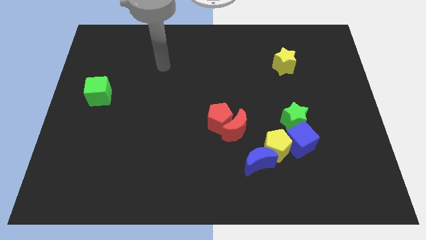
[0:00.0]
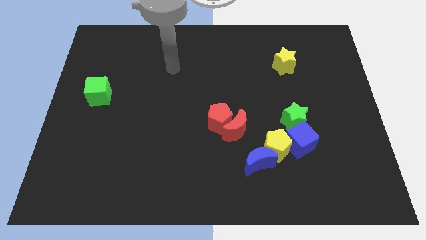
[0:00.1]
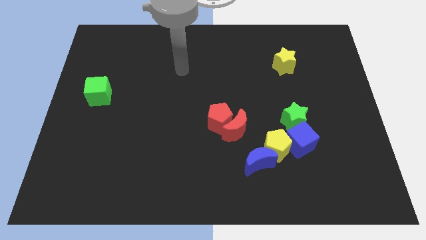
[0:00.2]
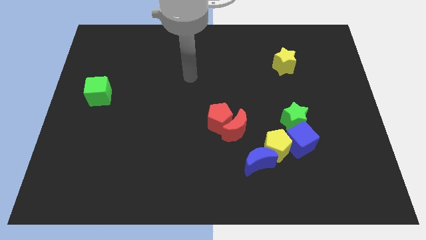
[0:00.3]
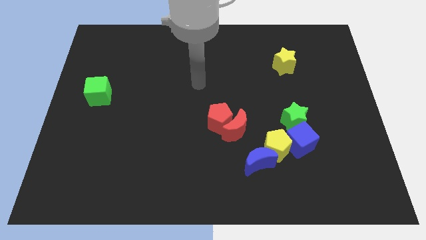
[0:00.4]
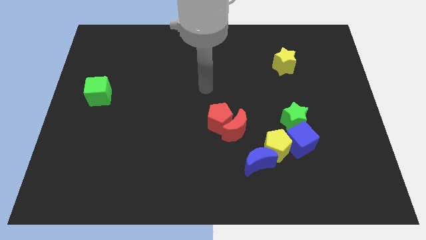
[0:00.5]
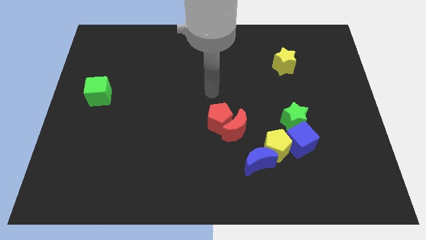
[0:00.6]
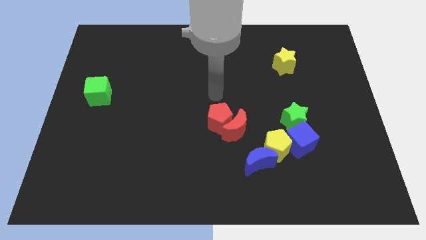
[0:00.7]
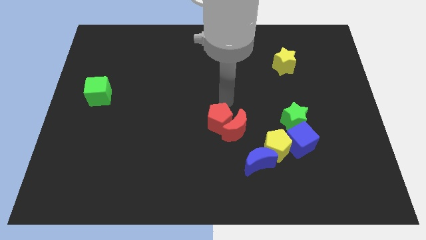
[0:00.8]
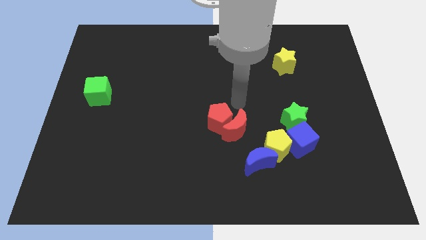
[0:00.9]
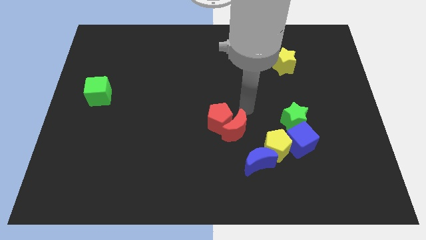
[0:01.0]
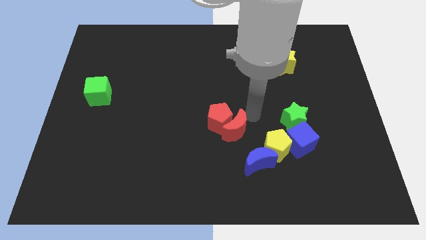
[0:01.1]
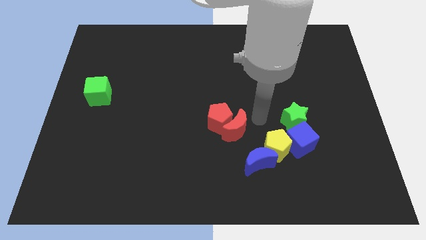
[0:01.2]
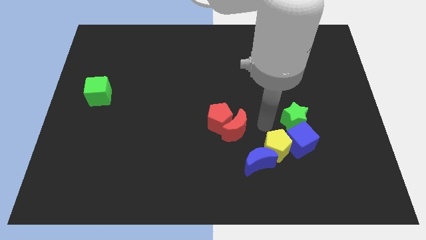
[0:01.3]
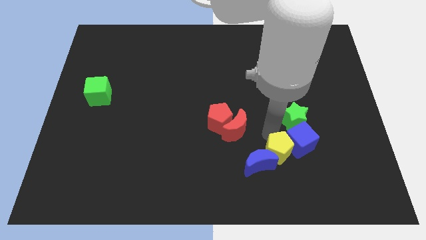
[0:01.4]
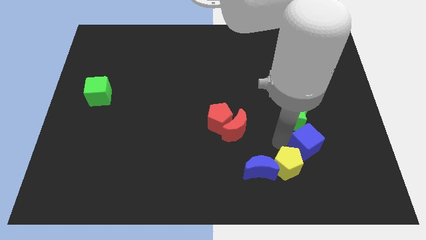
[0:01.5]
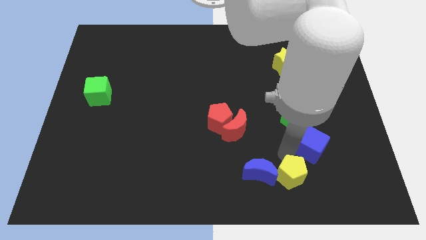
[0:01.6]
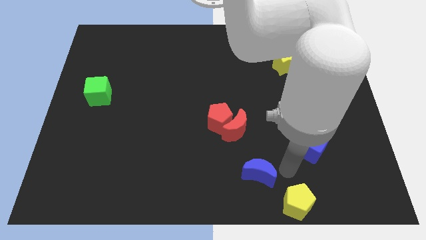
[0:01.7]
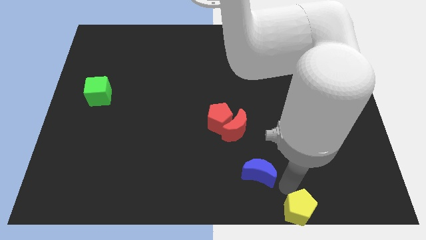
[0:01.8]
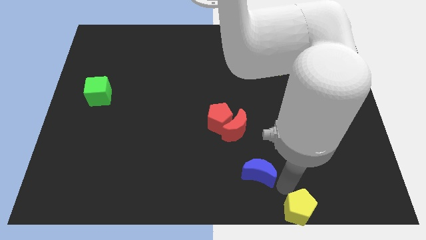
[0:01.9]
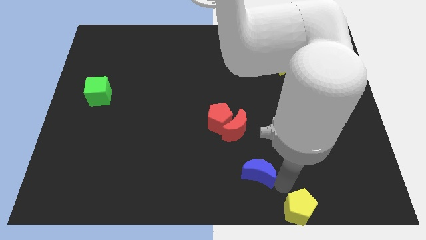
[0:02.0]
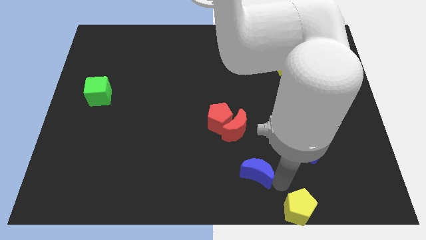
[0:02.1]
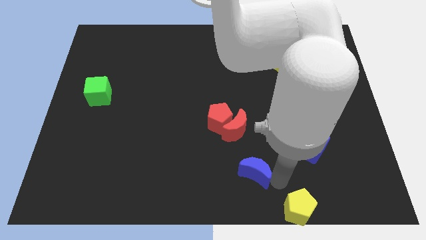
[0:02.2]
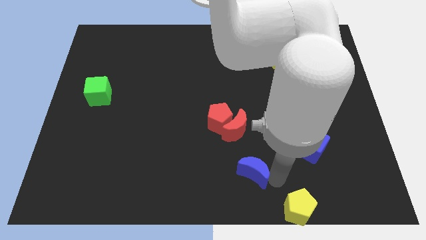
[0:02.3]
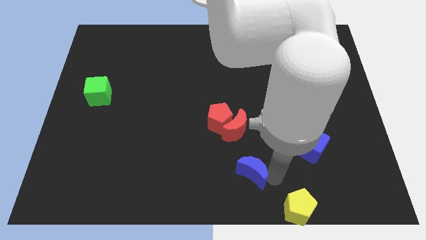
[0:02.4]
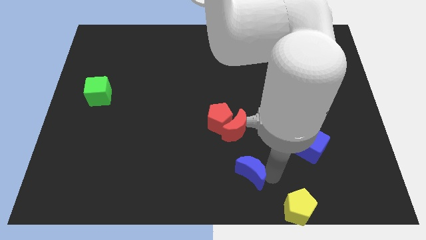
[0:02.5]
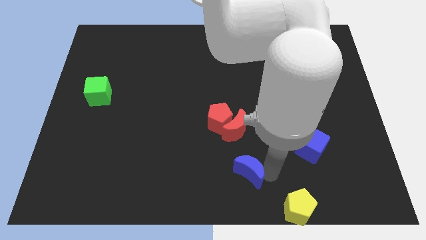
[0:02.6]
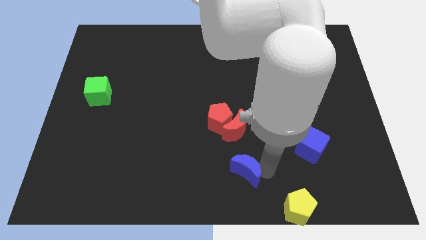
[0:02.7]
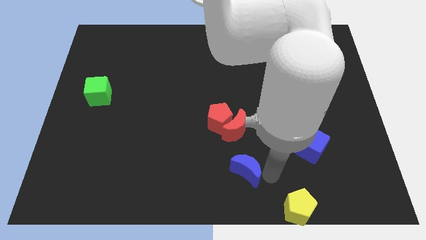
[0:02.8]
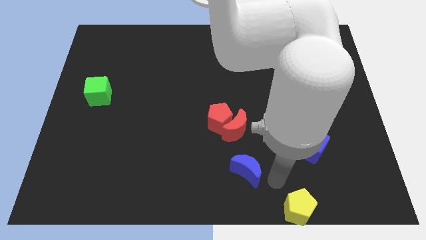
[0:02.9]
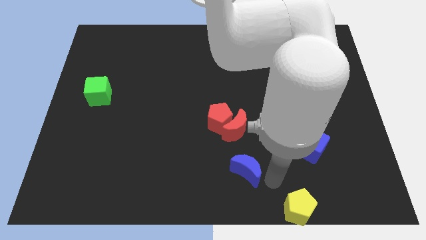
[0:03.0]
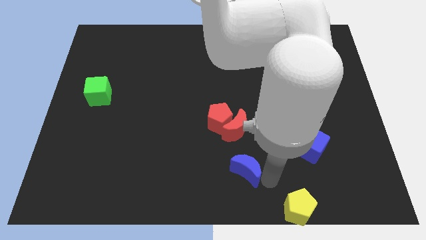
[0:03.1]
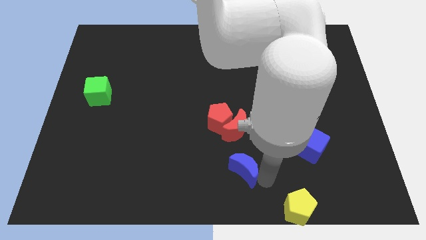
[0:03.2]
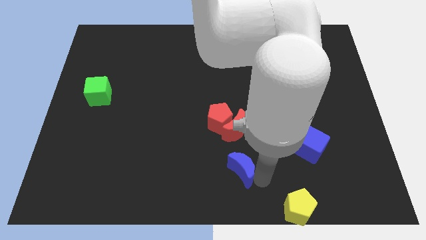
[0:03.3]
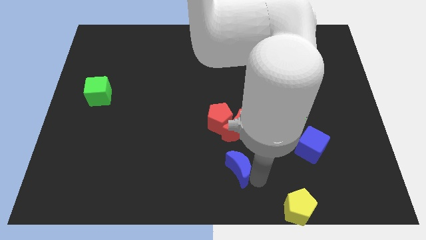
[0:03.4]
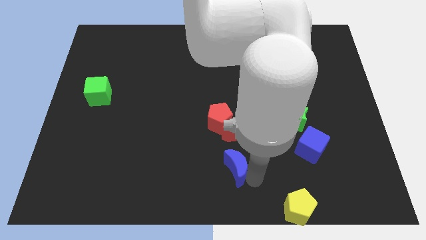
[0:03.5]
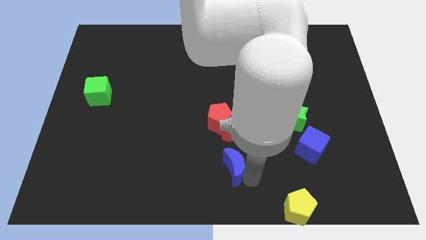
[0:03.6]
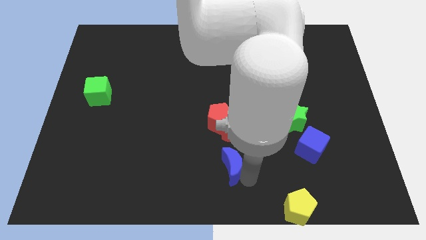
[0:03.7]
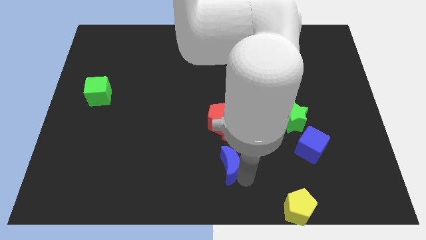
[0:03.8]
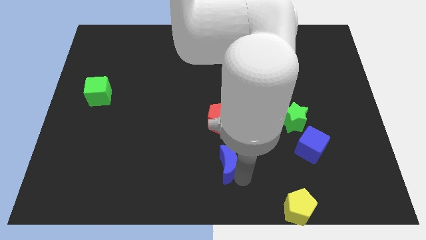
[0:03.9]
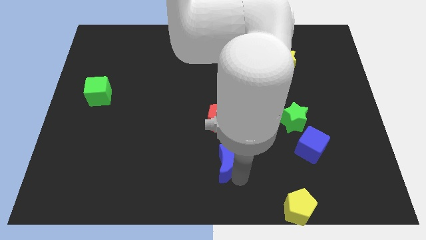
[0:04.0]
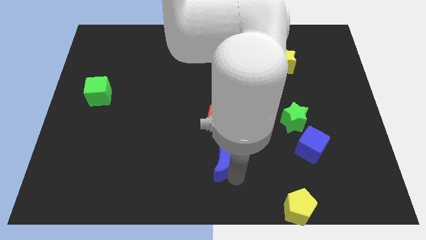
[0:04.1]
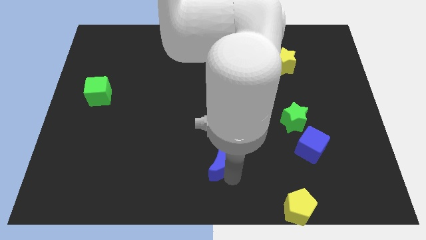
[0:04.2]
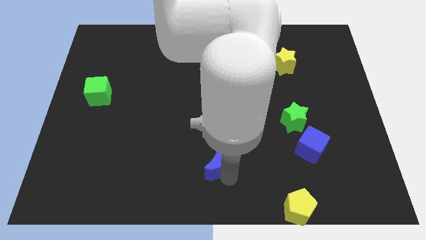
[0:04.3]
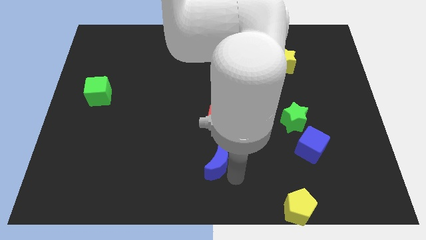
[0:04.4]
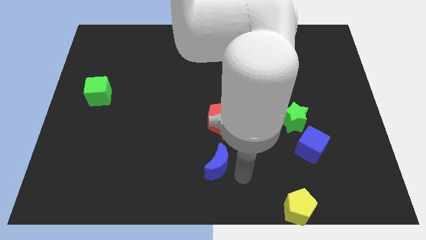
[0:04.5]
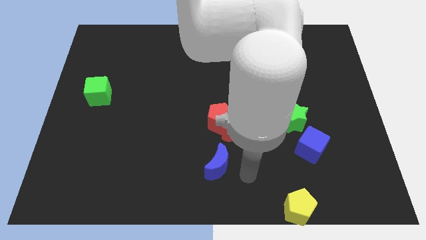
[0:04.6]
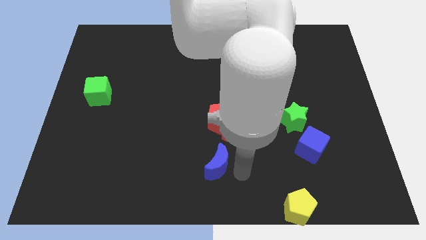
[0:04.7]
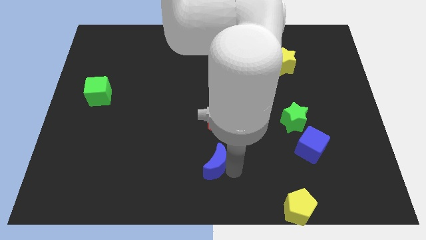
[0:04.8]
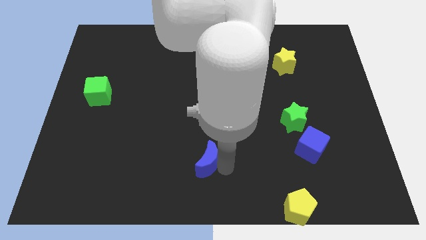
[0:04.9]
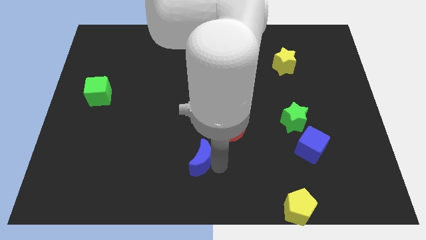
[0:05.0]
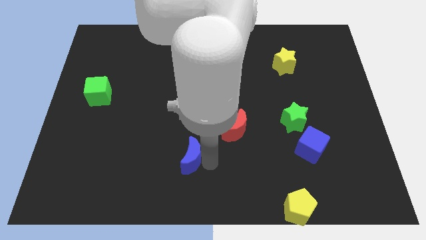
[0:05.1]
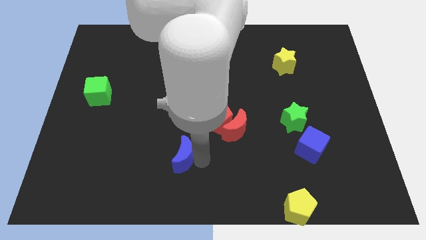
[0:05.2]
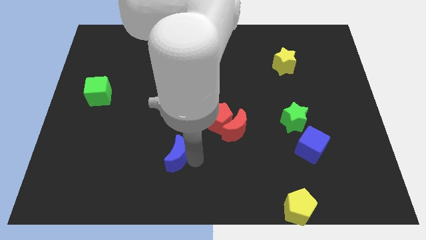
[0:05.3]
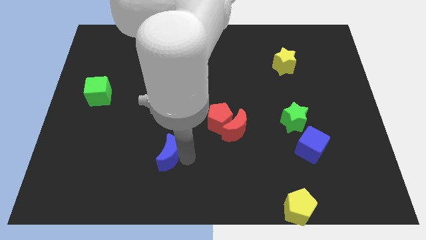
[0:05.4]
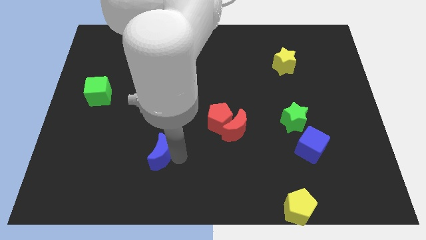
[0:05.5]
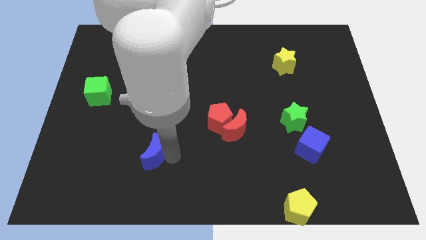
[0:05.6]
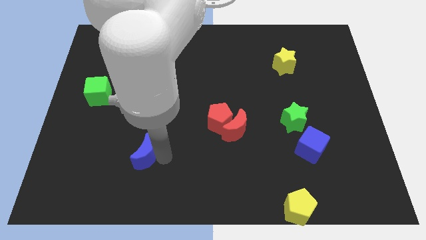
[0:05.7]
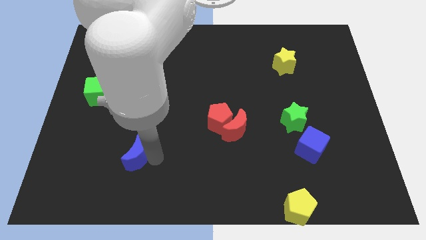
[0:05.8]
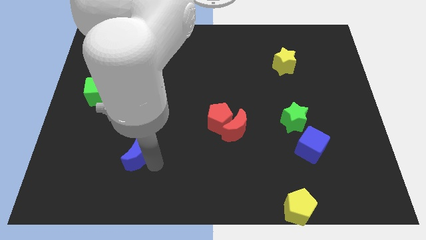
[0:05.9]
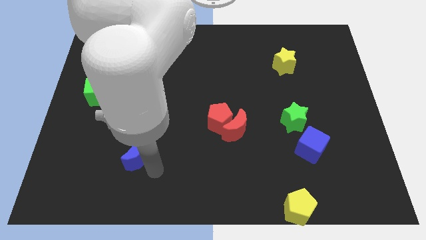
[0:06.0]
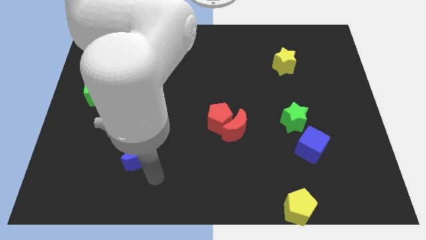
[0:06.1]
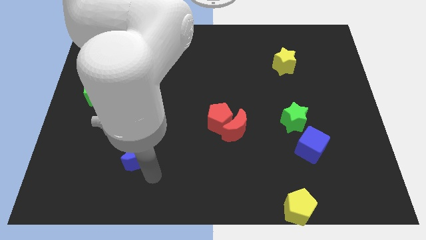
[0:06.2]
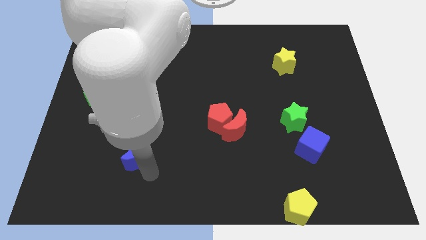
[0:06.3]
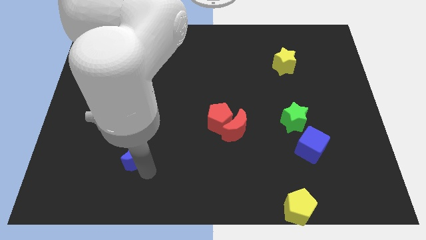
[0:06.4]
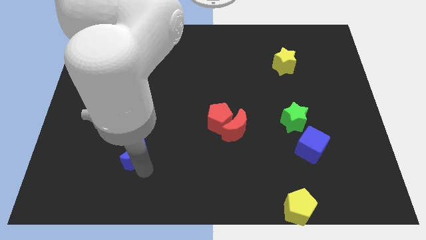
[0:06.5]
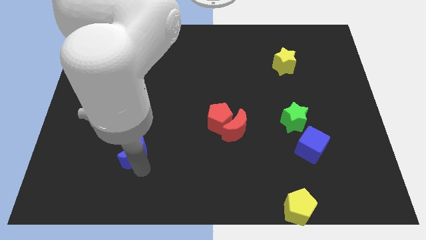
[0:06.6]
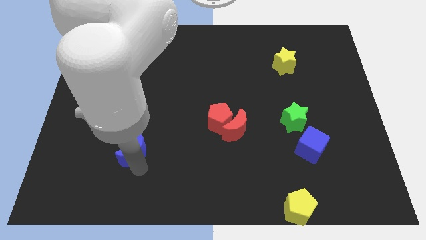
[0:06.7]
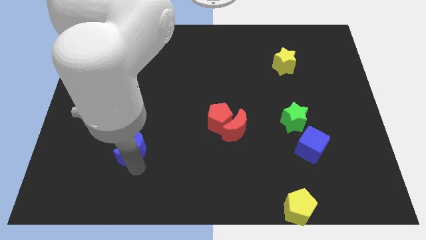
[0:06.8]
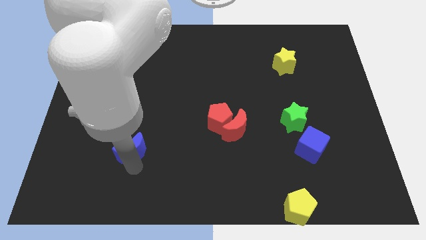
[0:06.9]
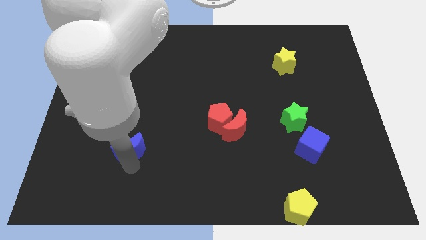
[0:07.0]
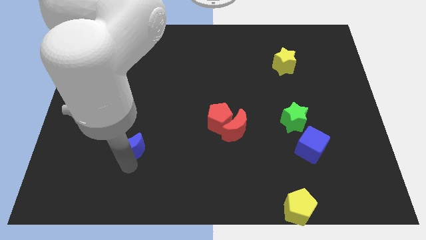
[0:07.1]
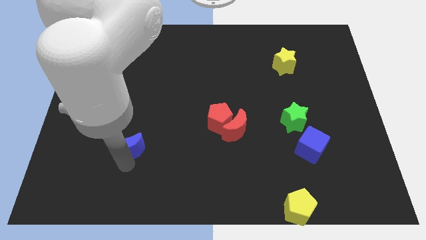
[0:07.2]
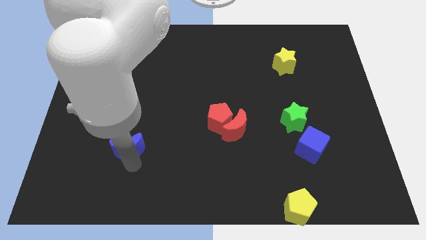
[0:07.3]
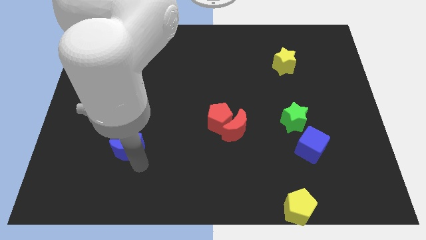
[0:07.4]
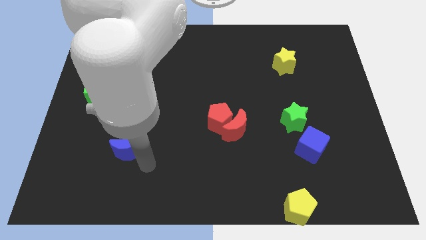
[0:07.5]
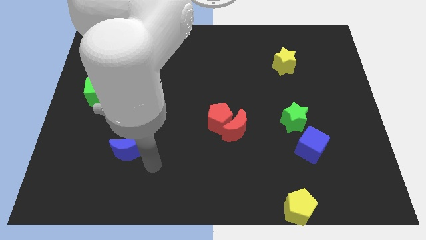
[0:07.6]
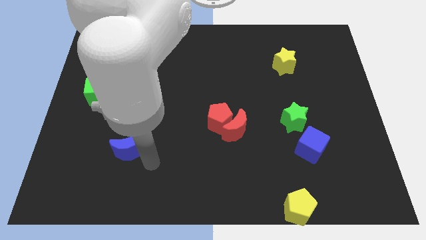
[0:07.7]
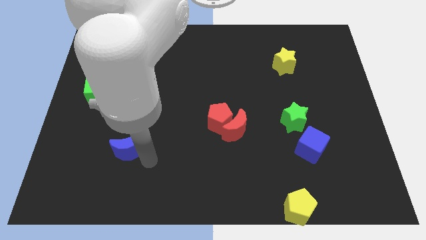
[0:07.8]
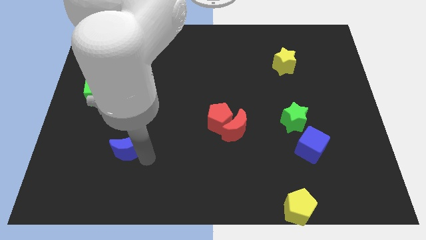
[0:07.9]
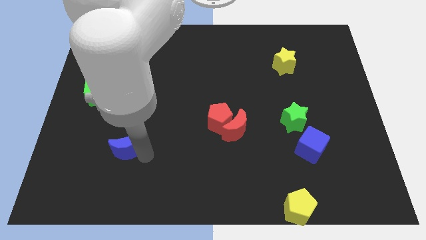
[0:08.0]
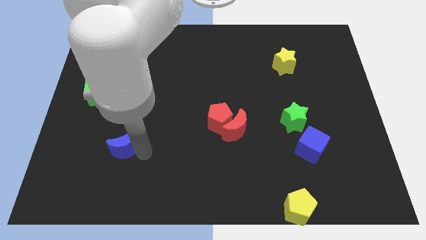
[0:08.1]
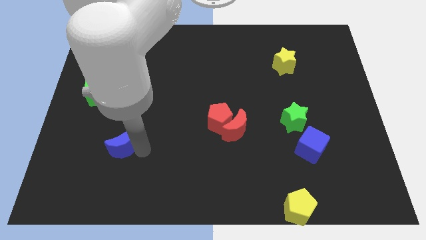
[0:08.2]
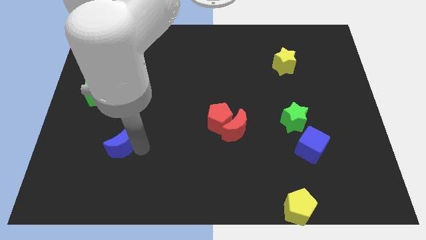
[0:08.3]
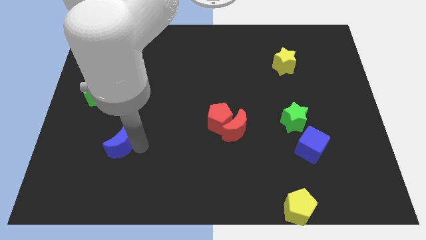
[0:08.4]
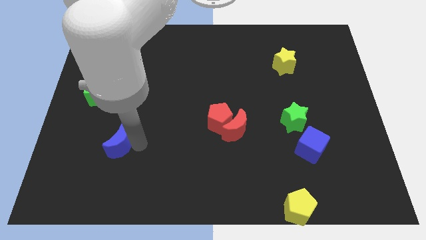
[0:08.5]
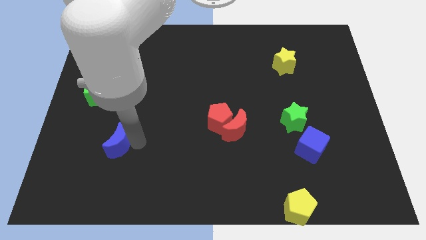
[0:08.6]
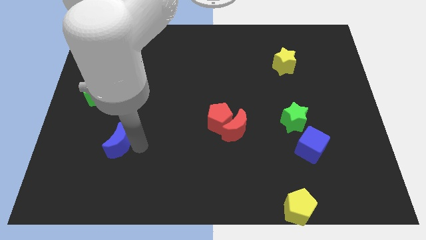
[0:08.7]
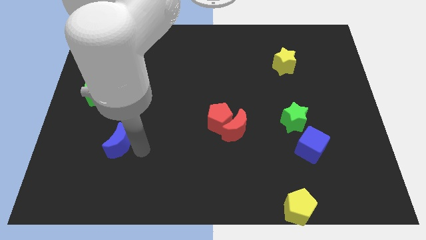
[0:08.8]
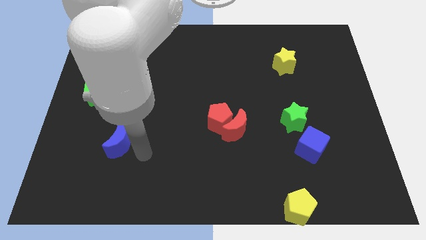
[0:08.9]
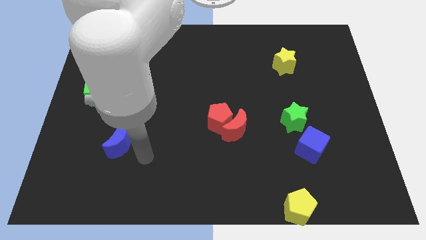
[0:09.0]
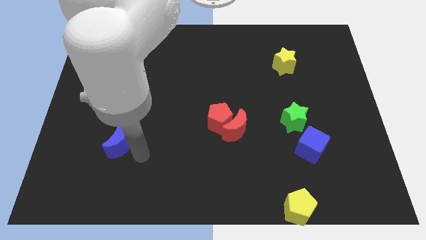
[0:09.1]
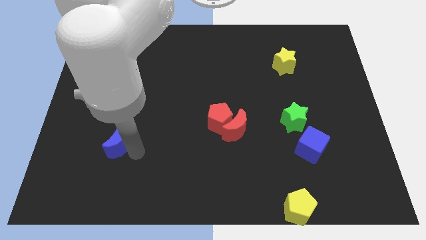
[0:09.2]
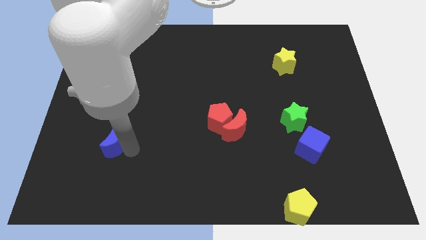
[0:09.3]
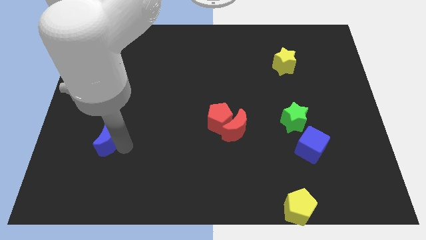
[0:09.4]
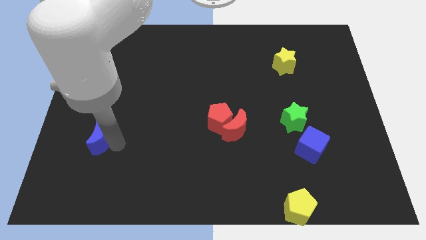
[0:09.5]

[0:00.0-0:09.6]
put the blue moon to the bottom of the green cube
